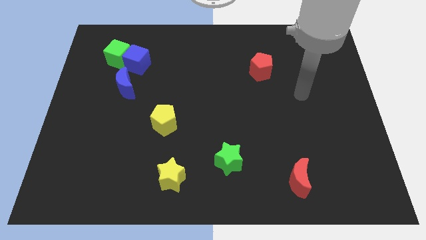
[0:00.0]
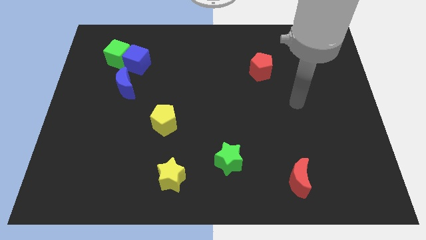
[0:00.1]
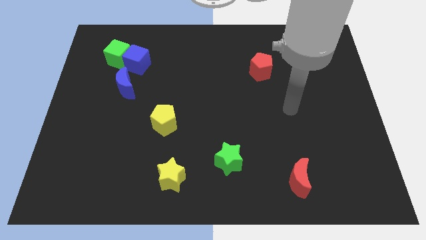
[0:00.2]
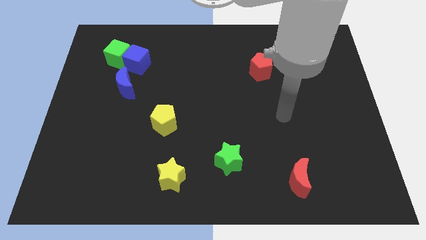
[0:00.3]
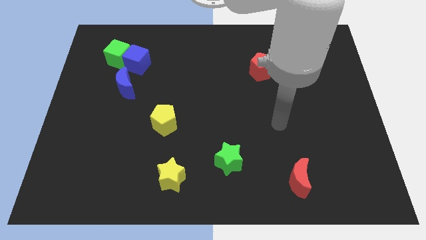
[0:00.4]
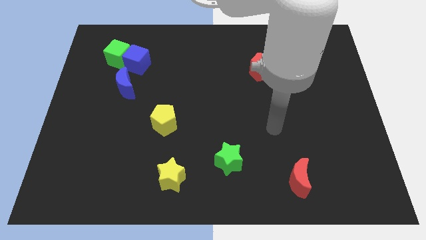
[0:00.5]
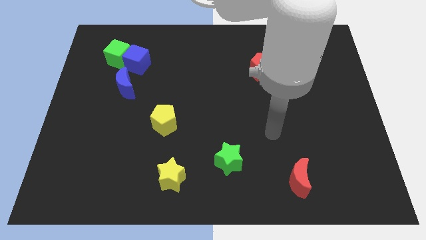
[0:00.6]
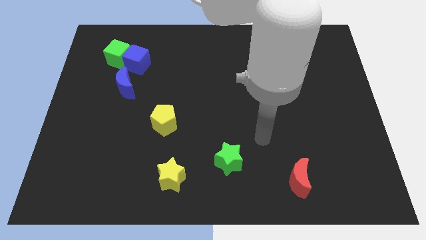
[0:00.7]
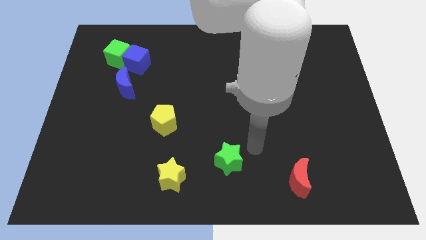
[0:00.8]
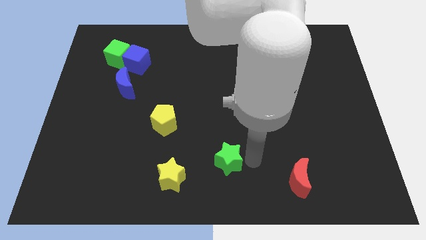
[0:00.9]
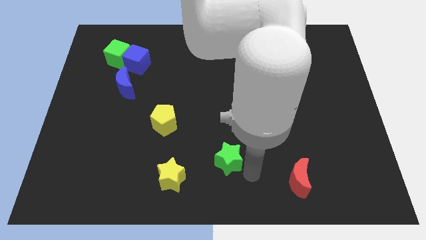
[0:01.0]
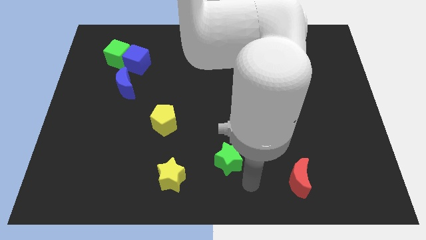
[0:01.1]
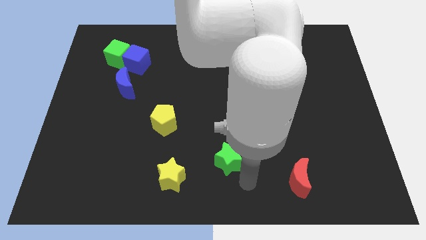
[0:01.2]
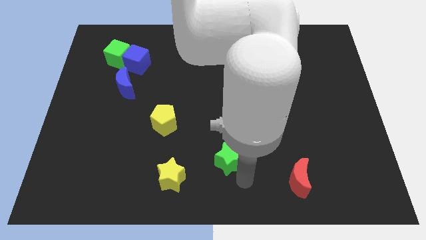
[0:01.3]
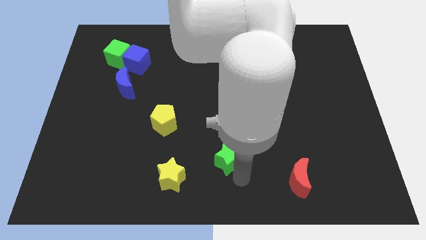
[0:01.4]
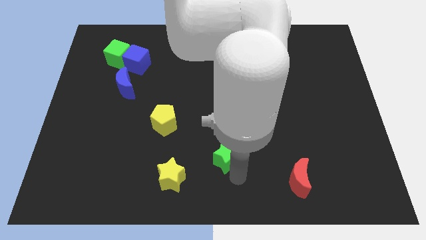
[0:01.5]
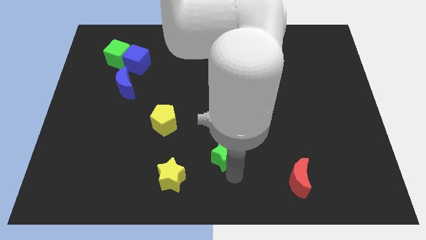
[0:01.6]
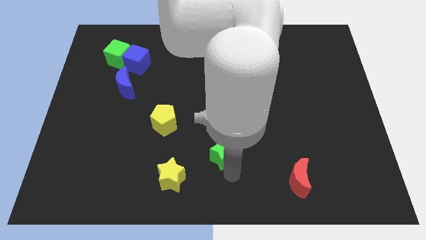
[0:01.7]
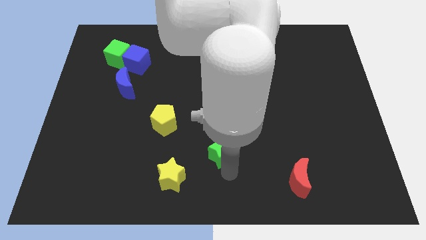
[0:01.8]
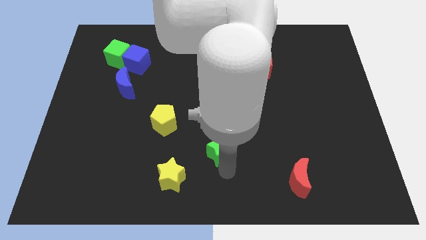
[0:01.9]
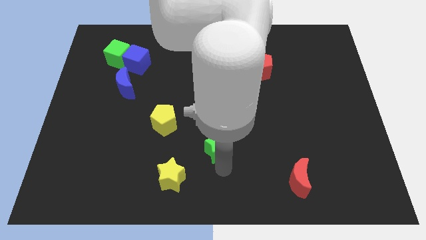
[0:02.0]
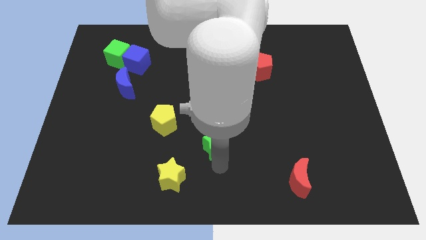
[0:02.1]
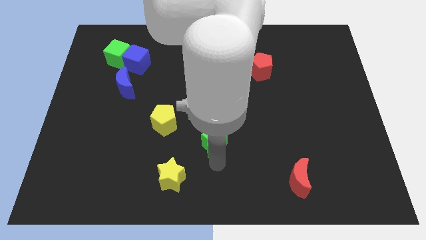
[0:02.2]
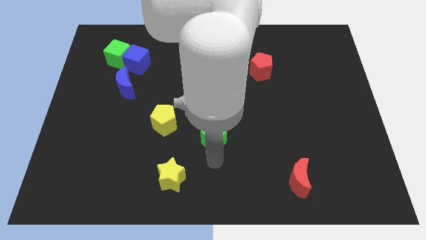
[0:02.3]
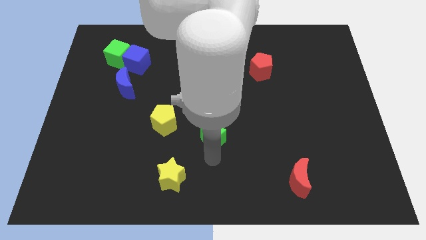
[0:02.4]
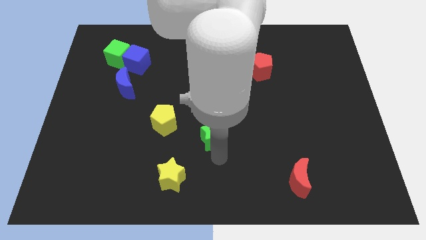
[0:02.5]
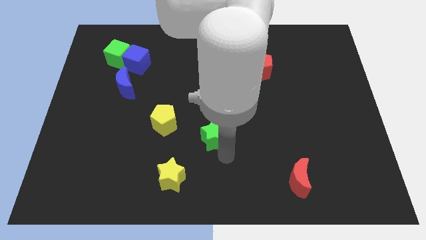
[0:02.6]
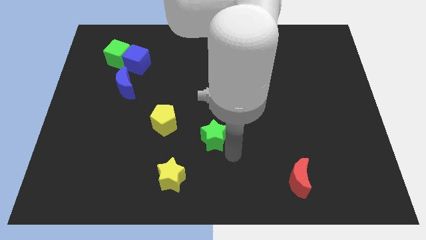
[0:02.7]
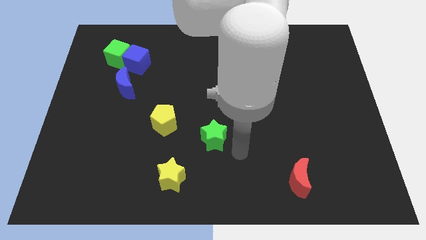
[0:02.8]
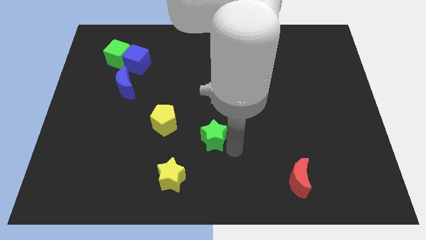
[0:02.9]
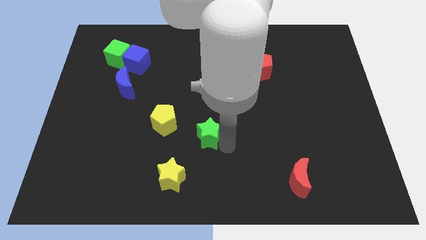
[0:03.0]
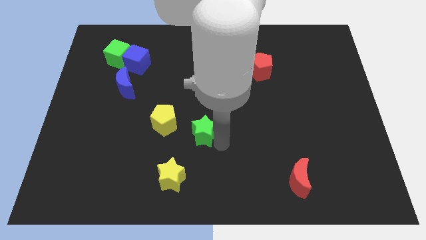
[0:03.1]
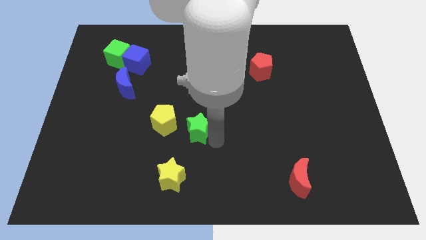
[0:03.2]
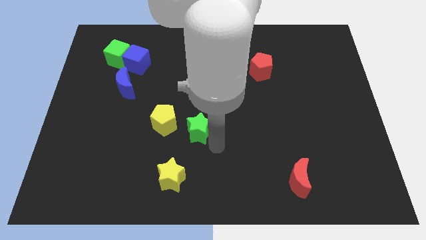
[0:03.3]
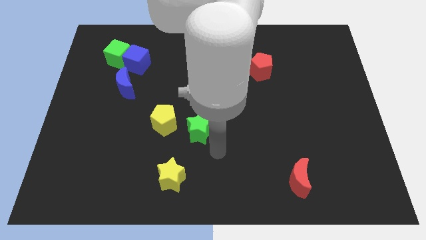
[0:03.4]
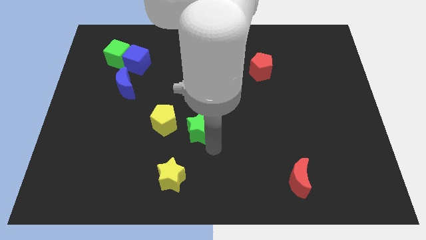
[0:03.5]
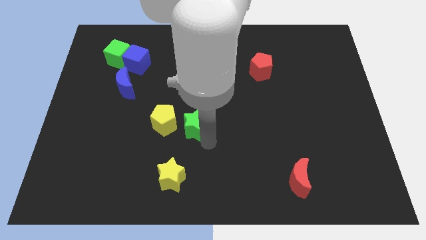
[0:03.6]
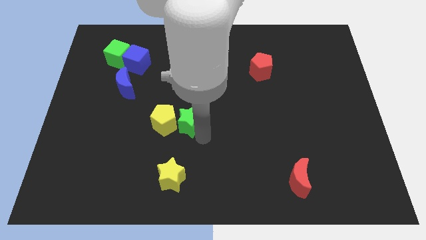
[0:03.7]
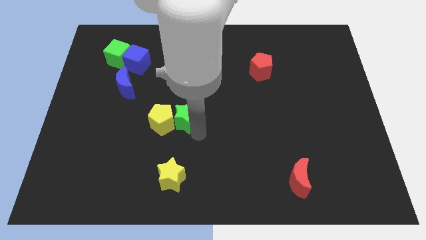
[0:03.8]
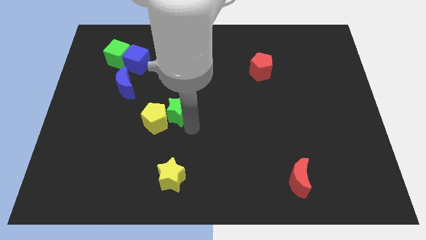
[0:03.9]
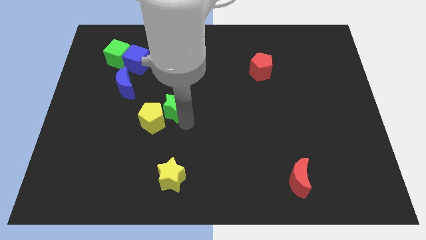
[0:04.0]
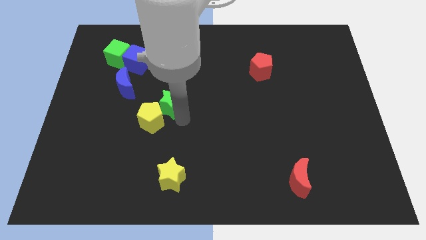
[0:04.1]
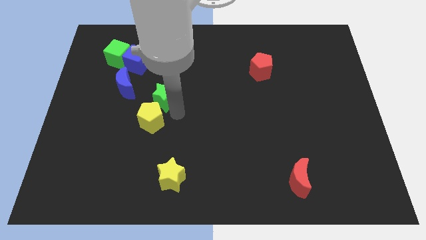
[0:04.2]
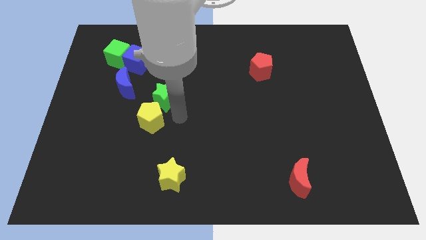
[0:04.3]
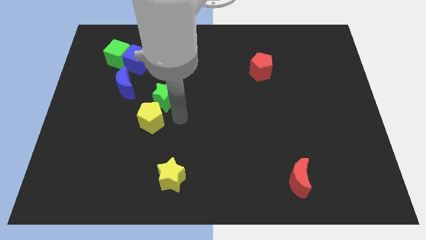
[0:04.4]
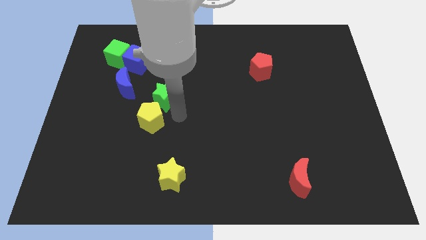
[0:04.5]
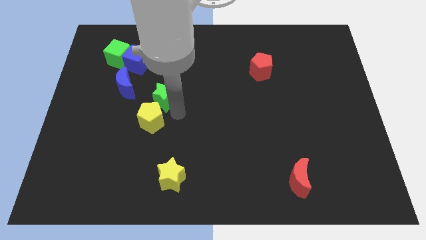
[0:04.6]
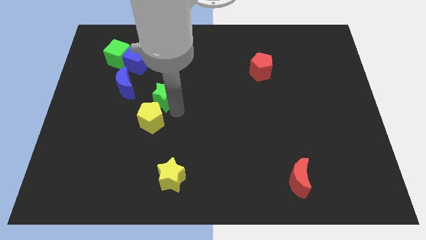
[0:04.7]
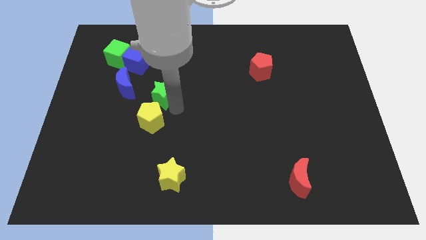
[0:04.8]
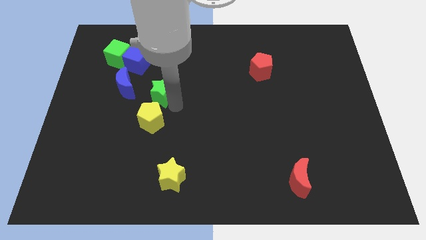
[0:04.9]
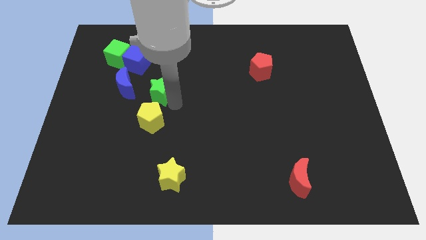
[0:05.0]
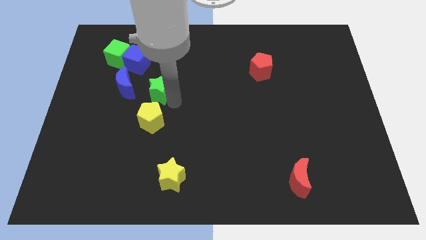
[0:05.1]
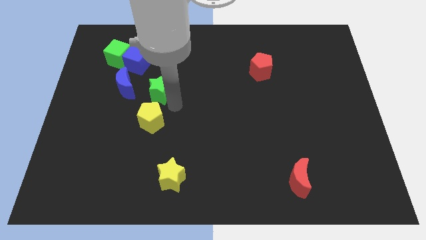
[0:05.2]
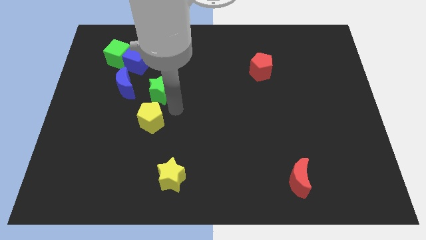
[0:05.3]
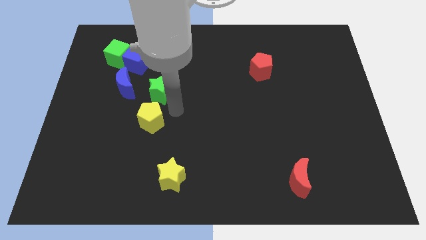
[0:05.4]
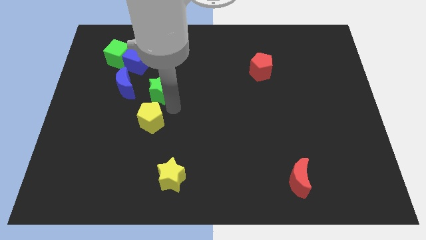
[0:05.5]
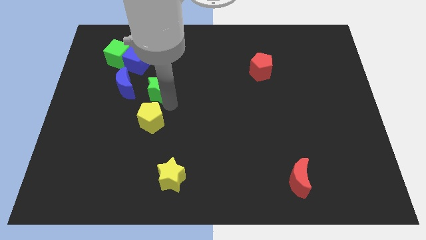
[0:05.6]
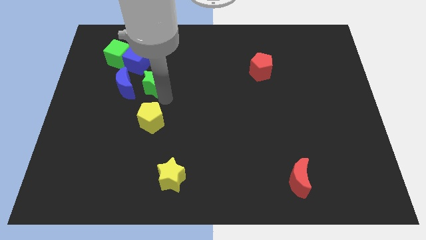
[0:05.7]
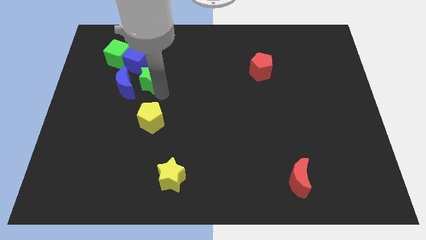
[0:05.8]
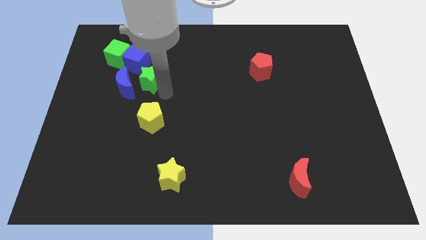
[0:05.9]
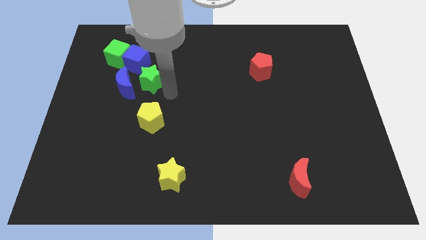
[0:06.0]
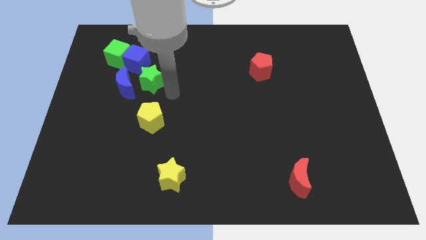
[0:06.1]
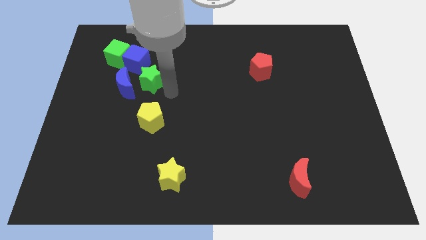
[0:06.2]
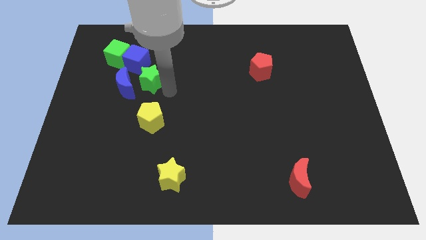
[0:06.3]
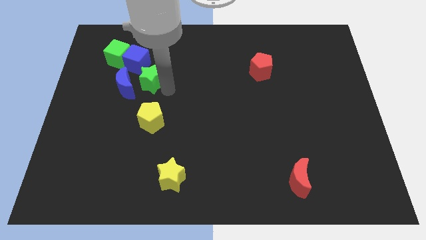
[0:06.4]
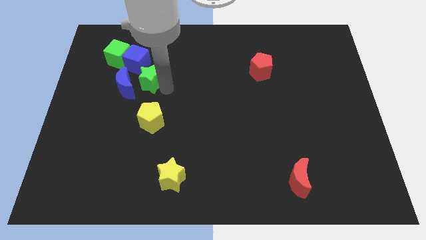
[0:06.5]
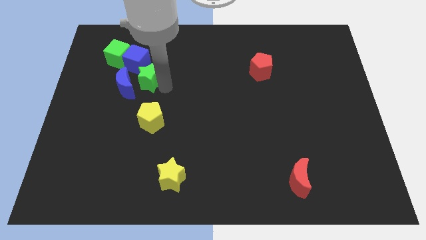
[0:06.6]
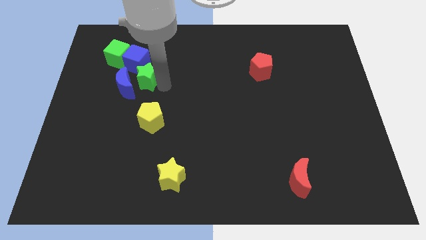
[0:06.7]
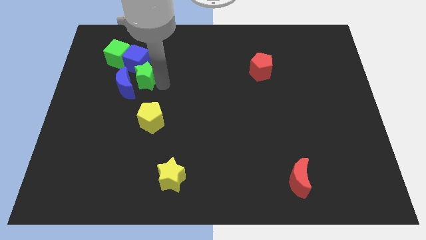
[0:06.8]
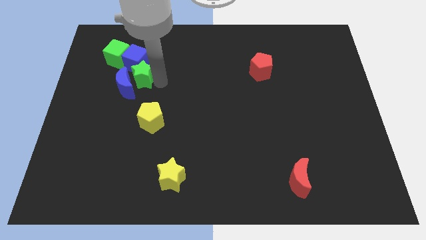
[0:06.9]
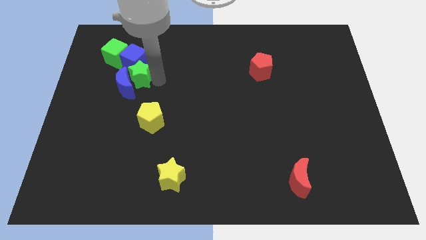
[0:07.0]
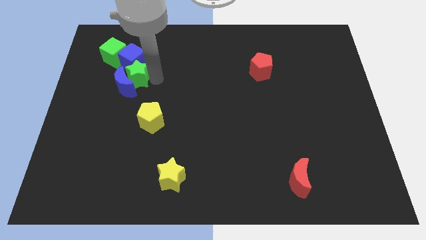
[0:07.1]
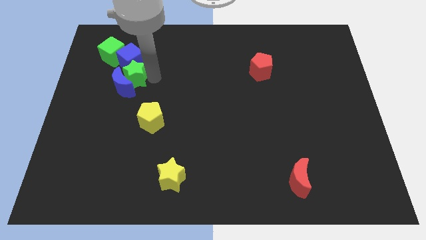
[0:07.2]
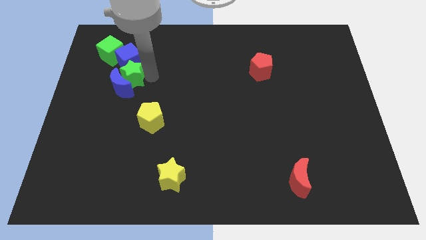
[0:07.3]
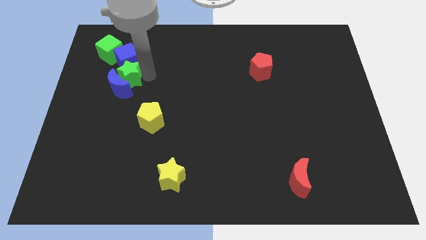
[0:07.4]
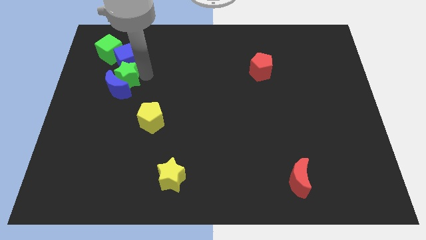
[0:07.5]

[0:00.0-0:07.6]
put the green star to the bottom left side of the blue cube
